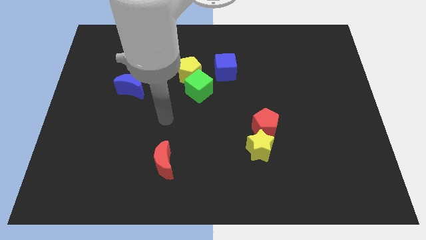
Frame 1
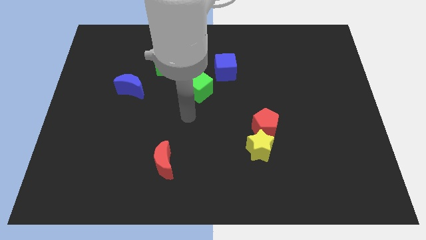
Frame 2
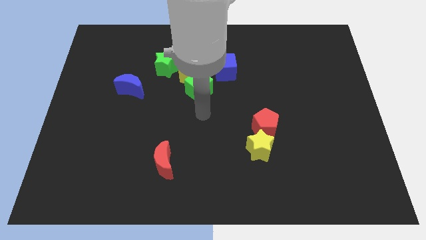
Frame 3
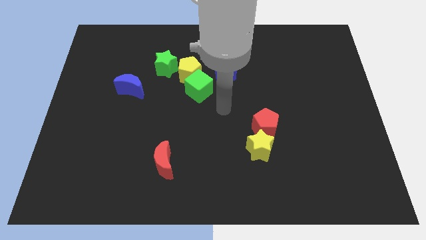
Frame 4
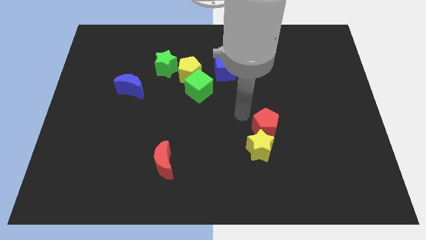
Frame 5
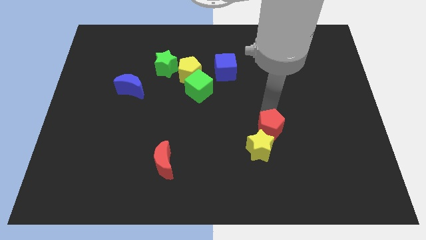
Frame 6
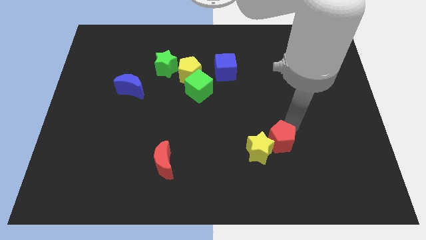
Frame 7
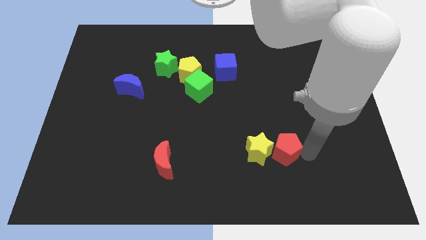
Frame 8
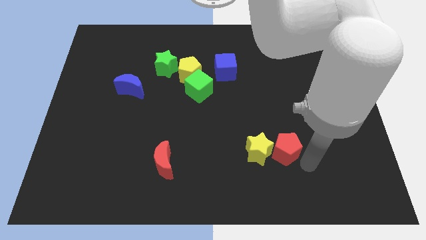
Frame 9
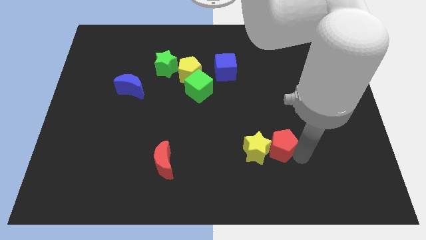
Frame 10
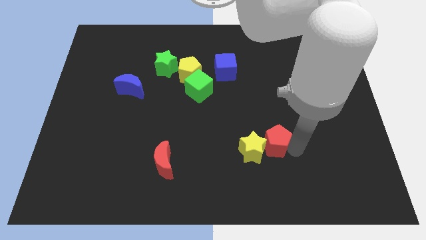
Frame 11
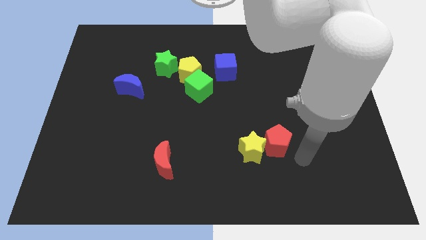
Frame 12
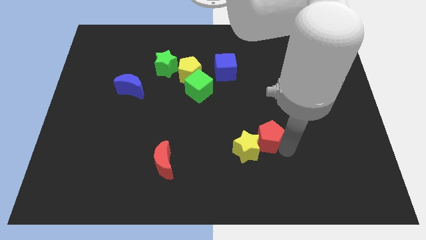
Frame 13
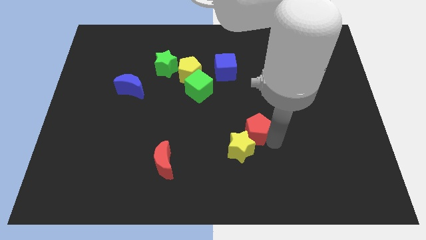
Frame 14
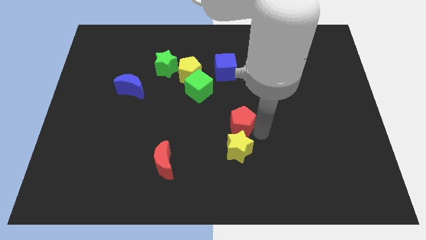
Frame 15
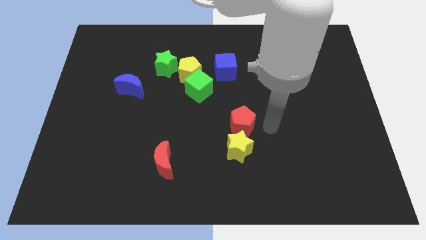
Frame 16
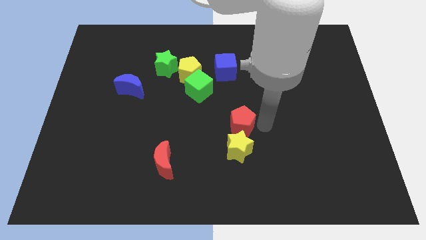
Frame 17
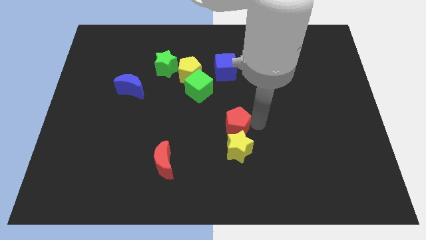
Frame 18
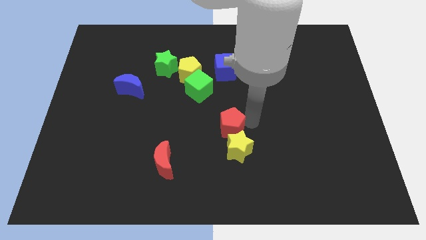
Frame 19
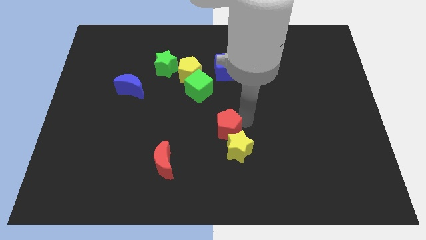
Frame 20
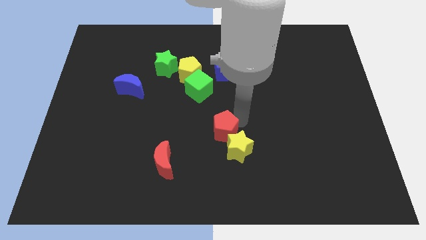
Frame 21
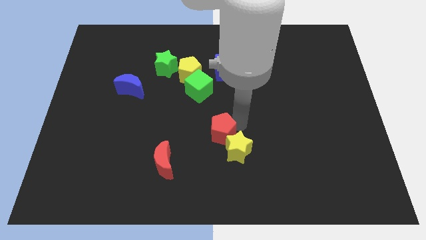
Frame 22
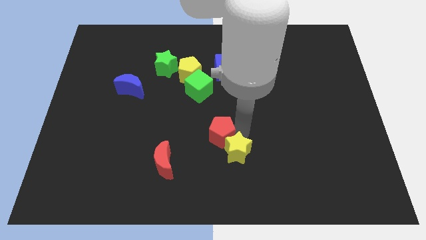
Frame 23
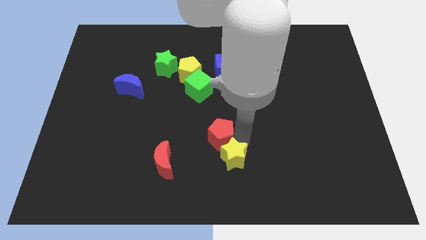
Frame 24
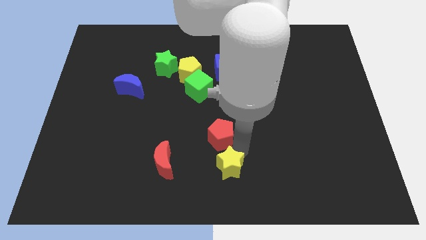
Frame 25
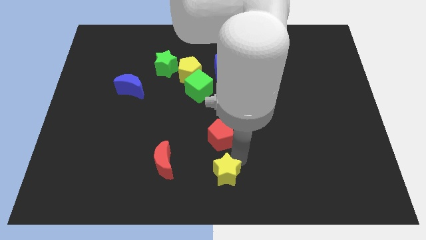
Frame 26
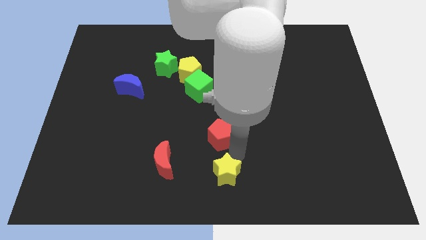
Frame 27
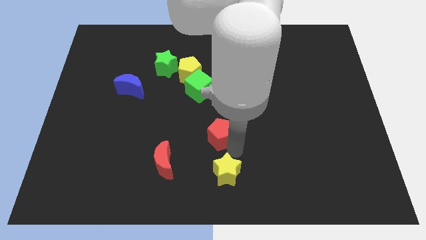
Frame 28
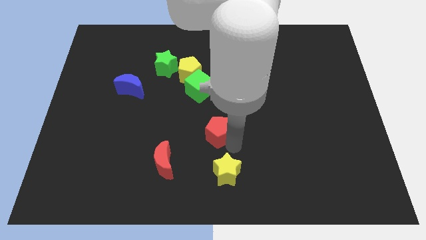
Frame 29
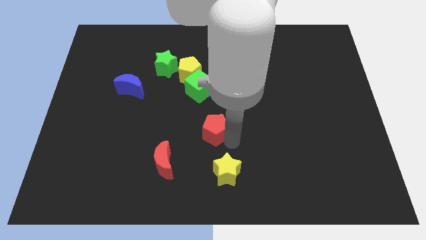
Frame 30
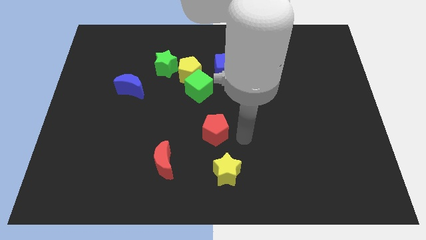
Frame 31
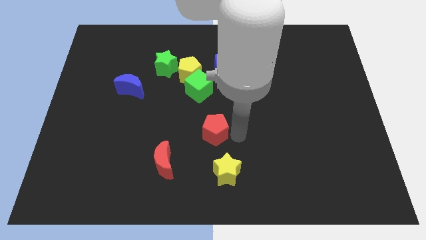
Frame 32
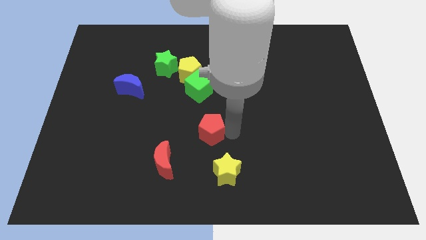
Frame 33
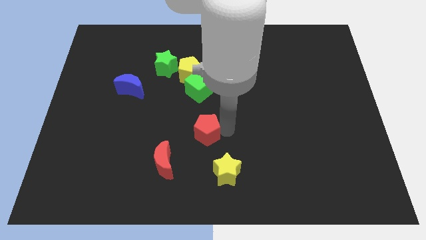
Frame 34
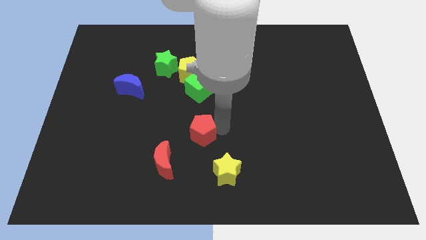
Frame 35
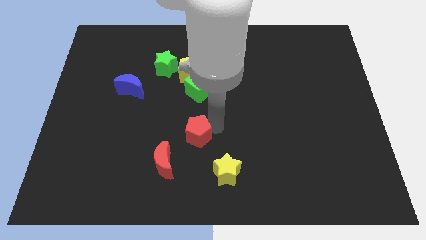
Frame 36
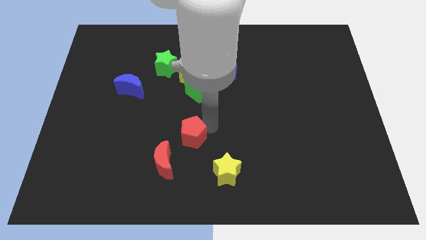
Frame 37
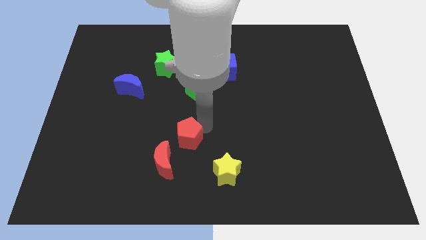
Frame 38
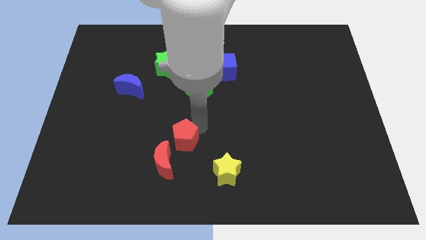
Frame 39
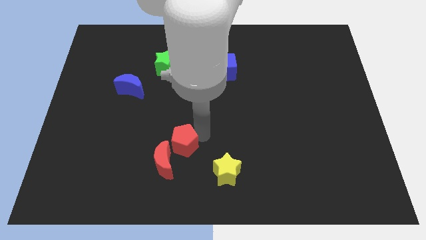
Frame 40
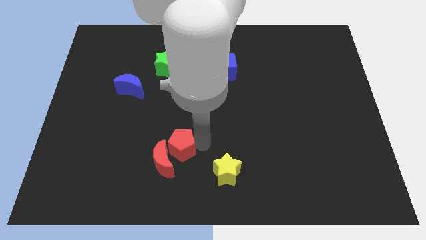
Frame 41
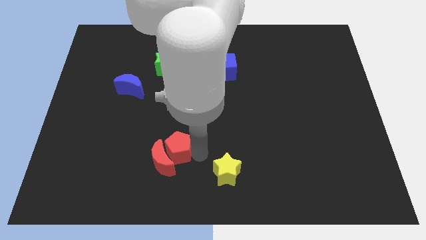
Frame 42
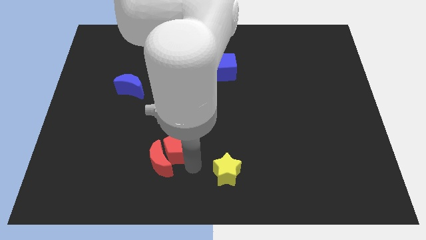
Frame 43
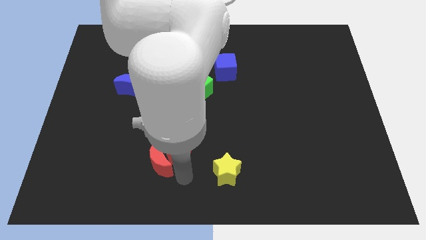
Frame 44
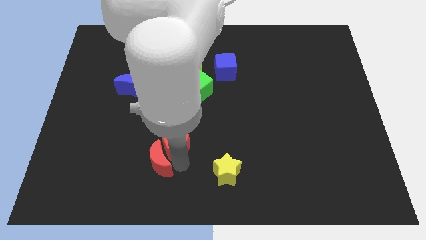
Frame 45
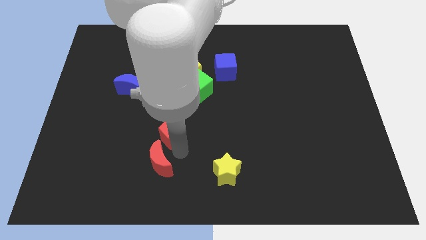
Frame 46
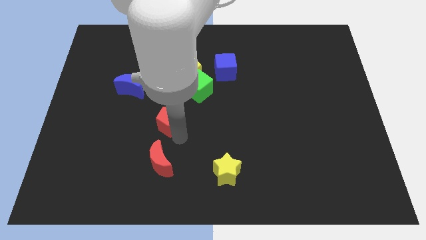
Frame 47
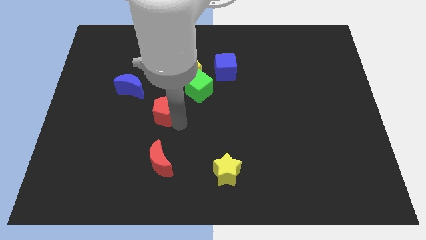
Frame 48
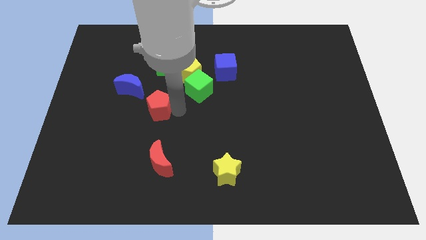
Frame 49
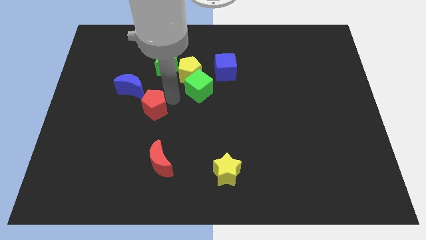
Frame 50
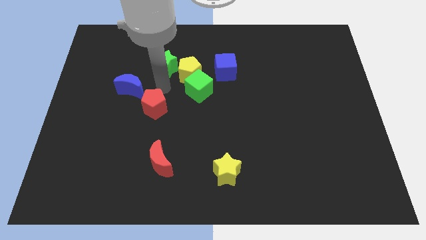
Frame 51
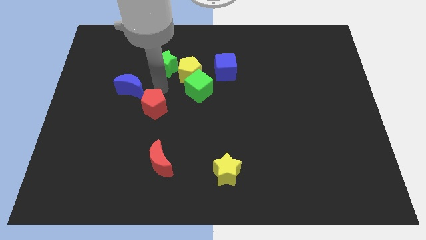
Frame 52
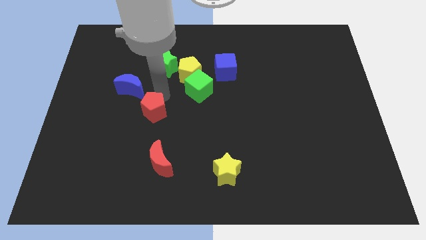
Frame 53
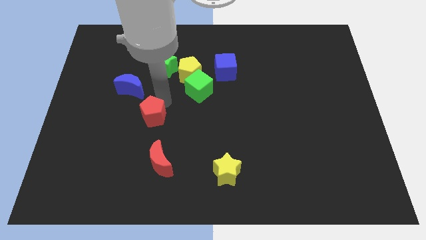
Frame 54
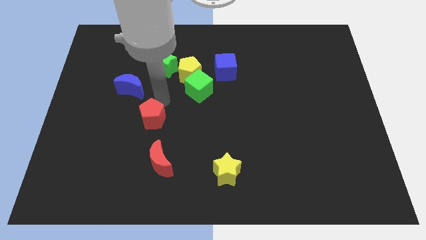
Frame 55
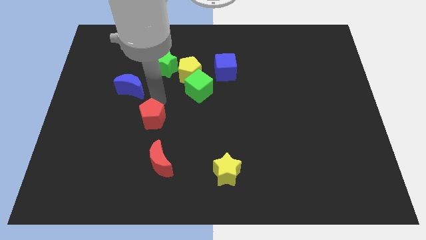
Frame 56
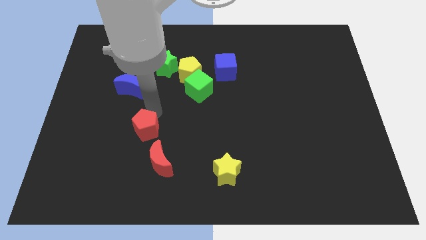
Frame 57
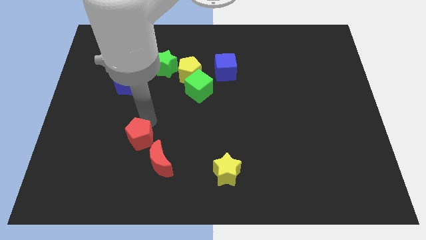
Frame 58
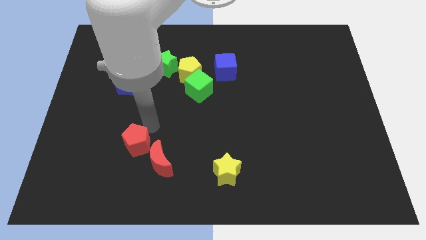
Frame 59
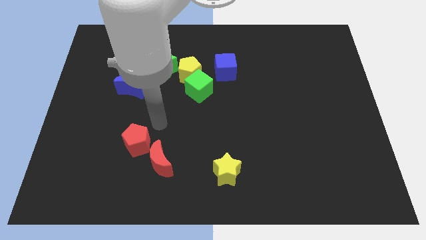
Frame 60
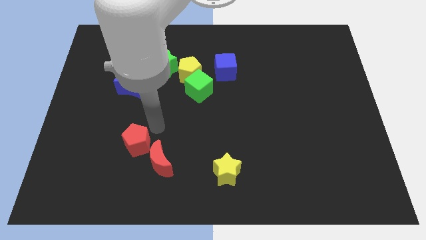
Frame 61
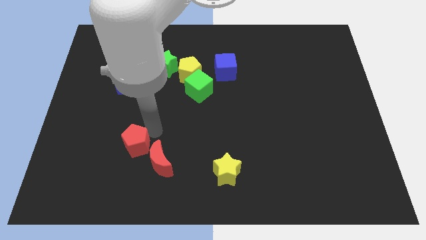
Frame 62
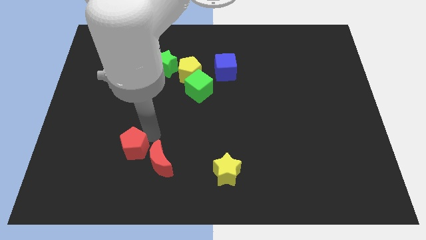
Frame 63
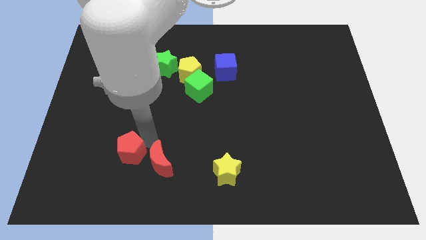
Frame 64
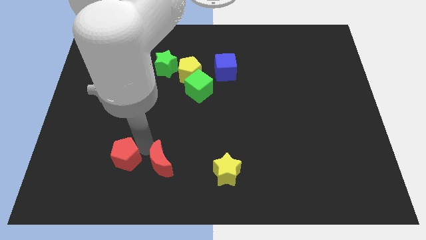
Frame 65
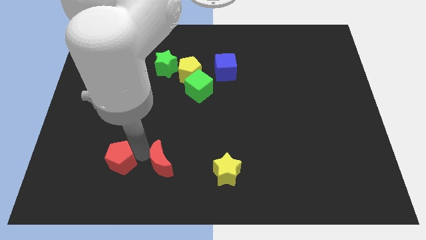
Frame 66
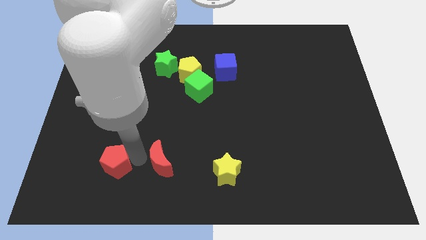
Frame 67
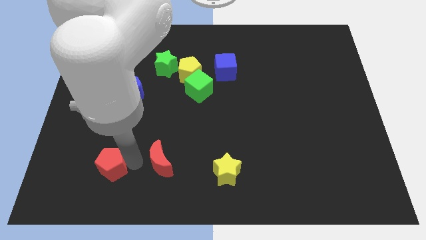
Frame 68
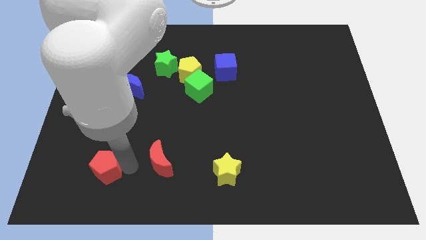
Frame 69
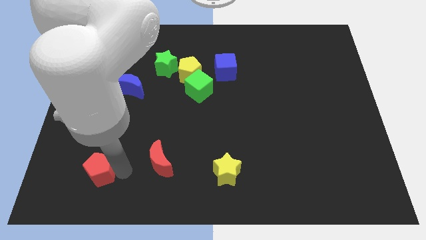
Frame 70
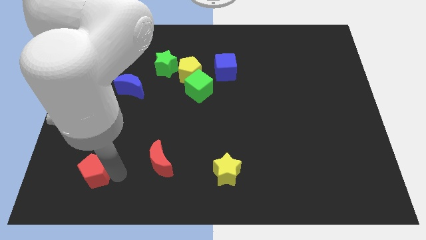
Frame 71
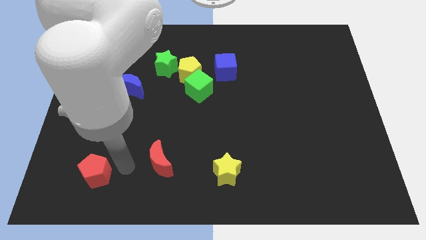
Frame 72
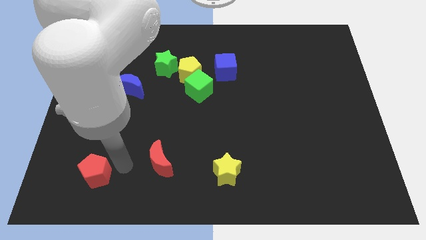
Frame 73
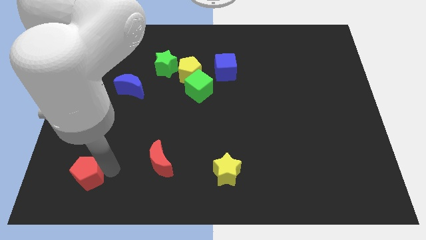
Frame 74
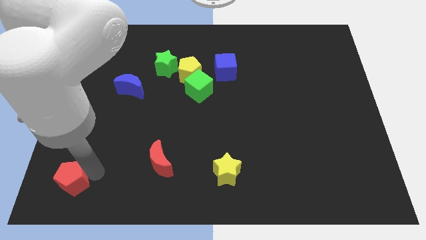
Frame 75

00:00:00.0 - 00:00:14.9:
move the red pentagon to the bottom left of the board
